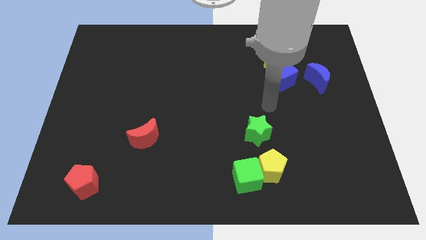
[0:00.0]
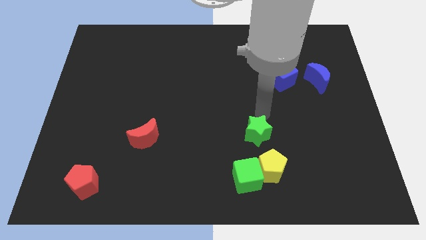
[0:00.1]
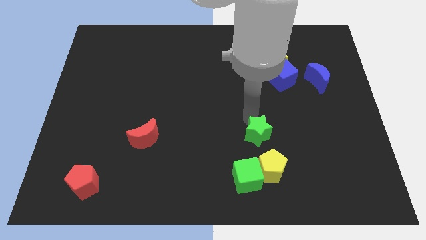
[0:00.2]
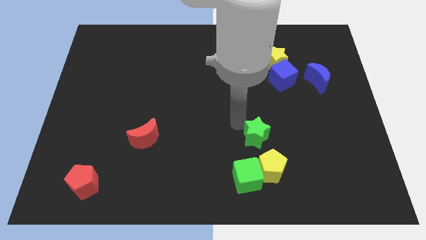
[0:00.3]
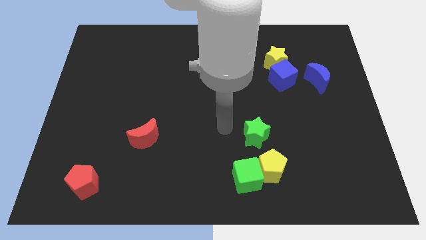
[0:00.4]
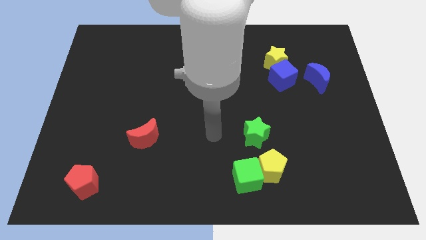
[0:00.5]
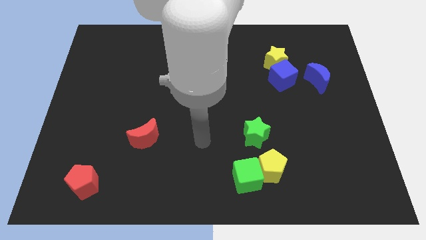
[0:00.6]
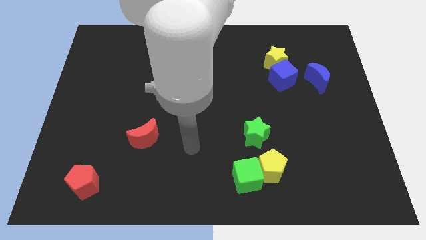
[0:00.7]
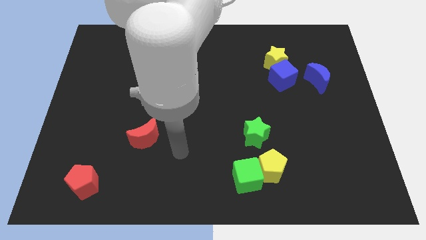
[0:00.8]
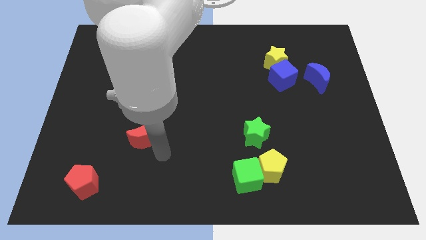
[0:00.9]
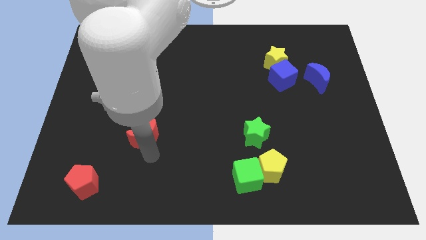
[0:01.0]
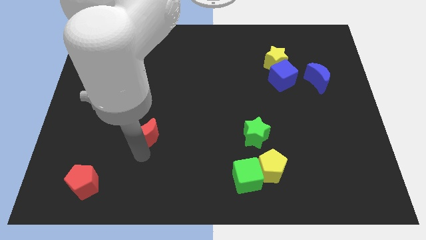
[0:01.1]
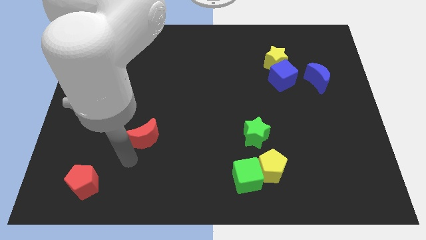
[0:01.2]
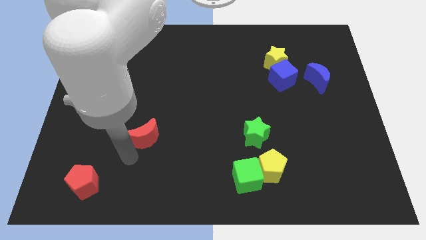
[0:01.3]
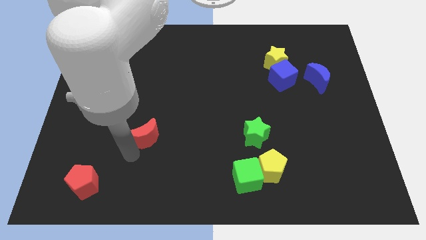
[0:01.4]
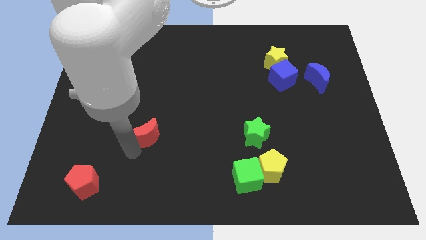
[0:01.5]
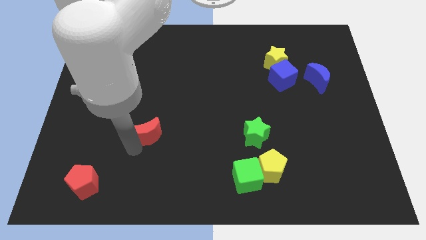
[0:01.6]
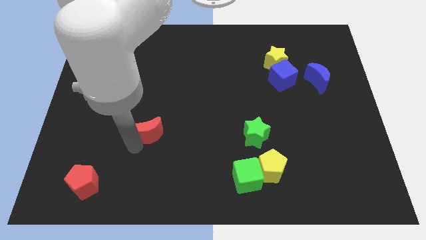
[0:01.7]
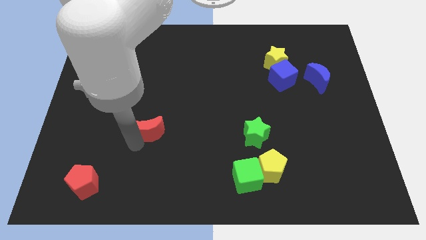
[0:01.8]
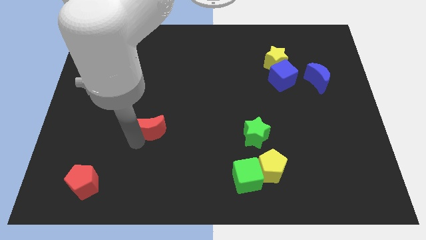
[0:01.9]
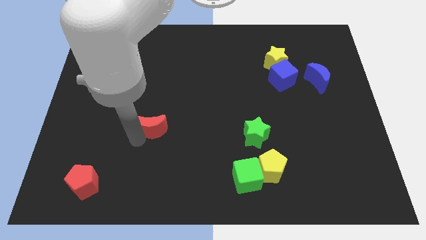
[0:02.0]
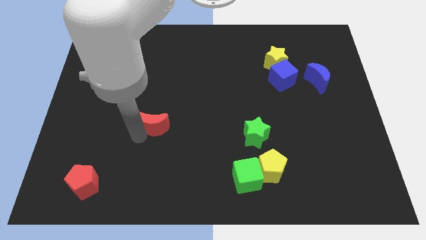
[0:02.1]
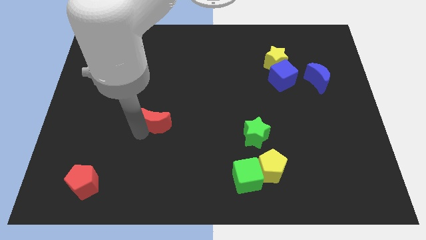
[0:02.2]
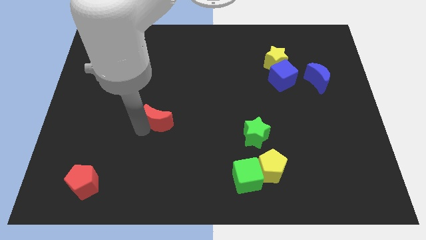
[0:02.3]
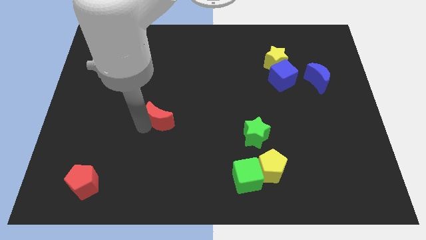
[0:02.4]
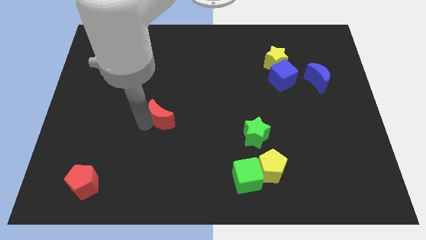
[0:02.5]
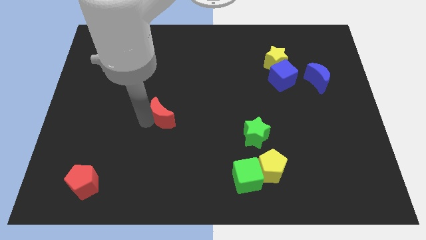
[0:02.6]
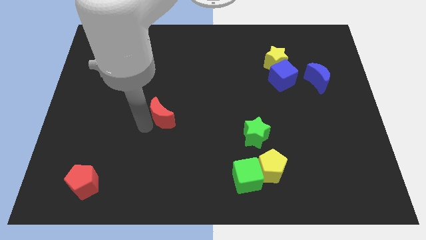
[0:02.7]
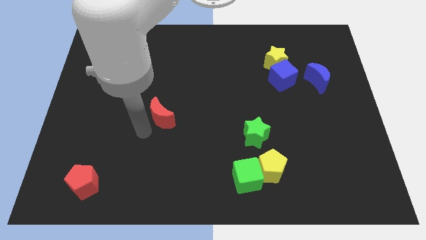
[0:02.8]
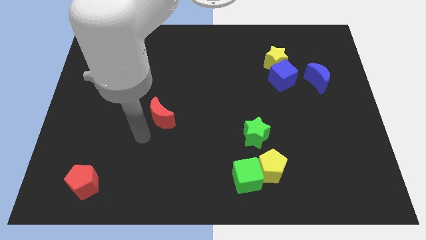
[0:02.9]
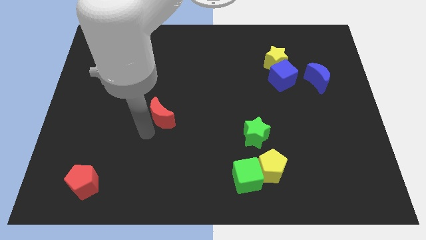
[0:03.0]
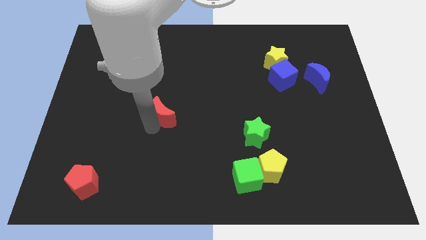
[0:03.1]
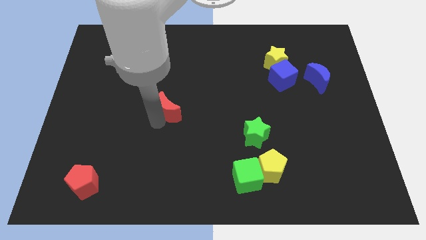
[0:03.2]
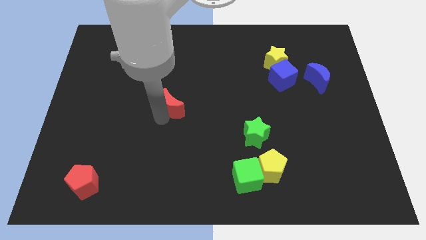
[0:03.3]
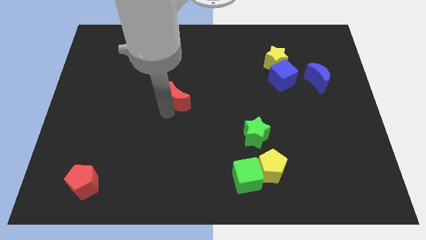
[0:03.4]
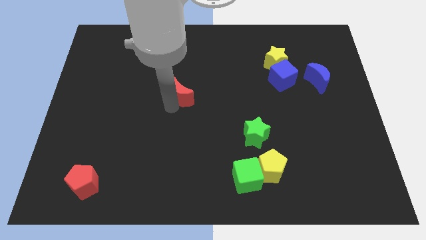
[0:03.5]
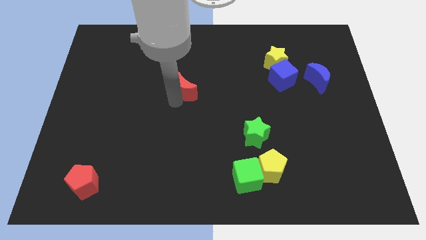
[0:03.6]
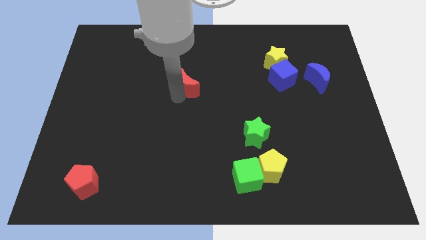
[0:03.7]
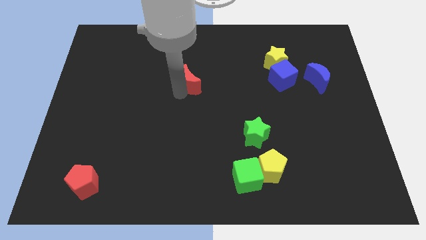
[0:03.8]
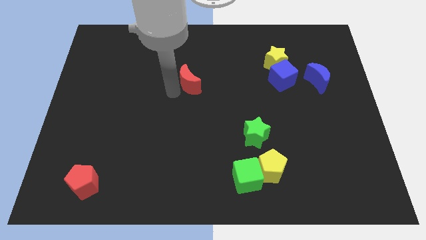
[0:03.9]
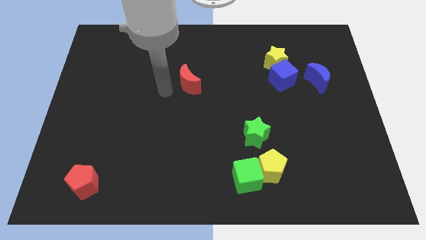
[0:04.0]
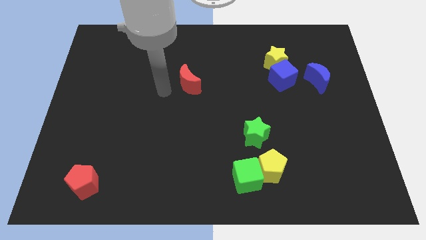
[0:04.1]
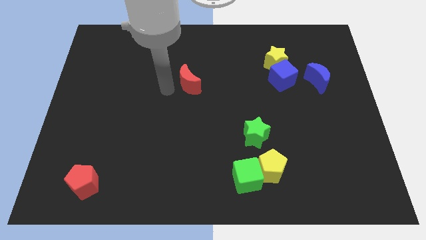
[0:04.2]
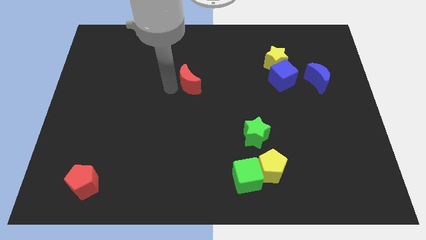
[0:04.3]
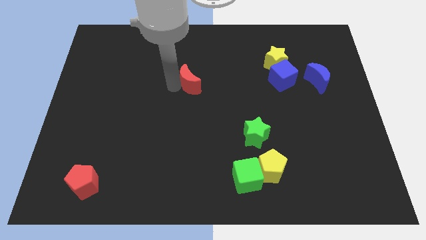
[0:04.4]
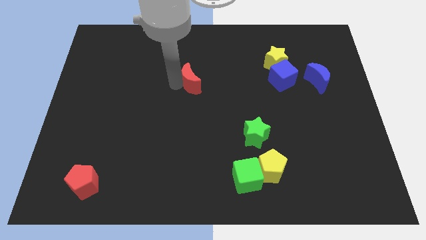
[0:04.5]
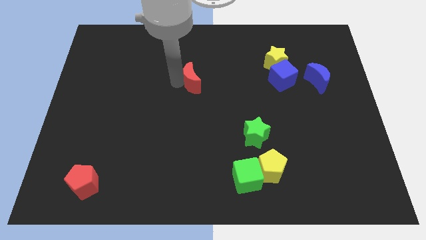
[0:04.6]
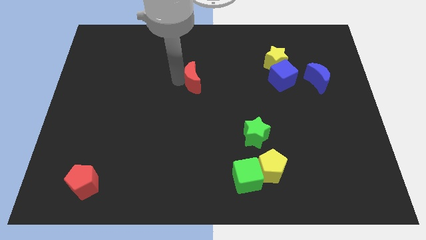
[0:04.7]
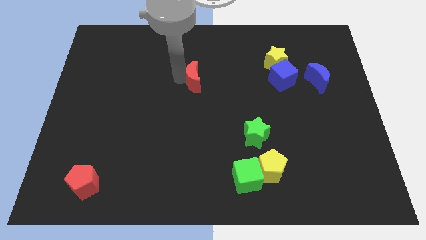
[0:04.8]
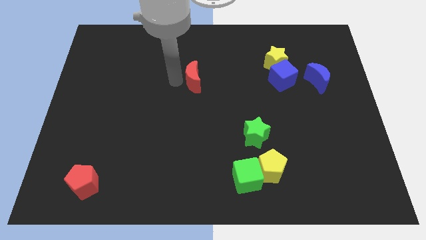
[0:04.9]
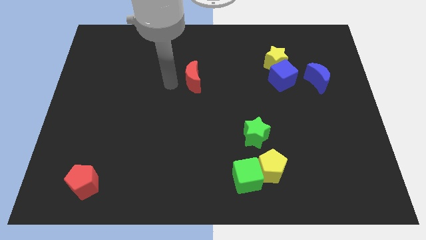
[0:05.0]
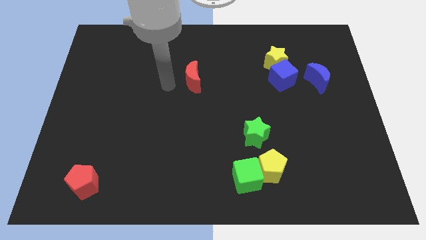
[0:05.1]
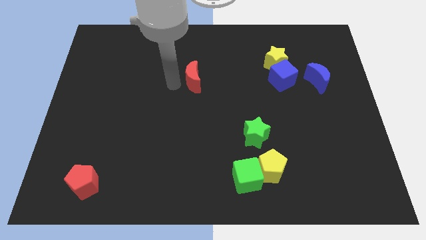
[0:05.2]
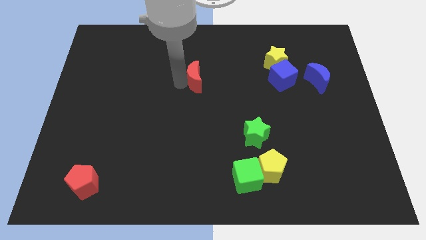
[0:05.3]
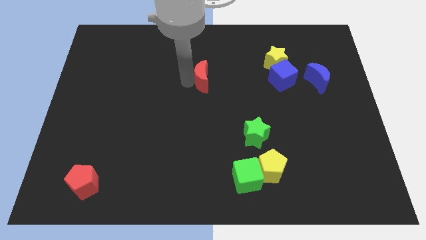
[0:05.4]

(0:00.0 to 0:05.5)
push the red moon up and right

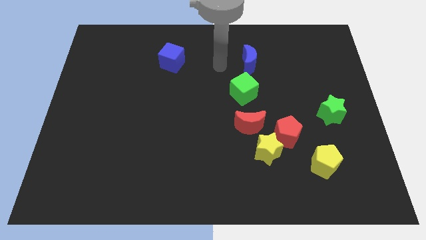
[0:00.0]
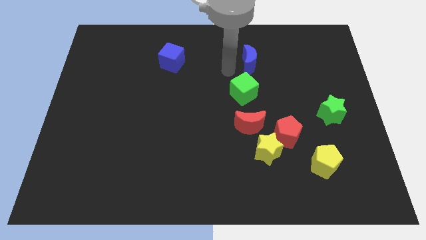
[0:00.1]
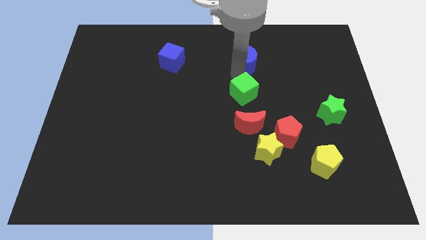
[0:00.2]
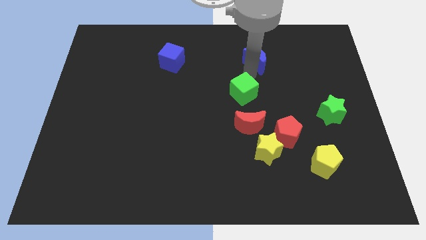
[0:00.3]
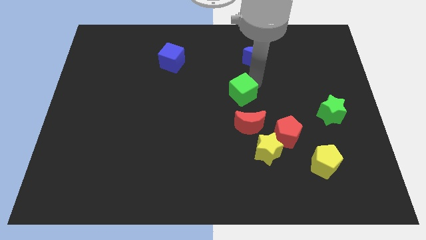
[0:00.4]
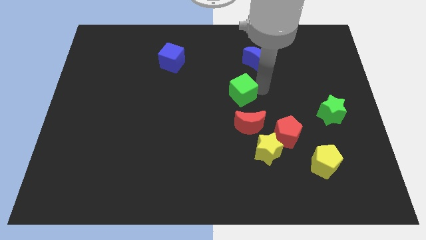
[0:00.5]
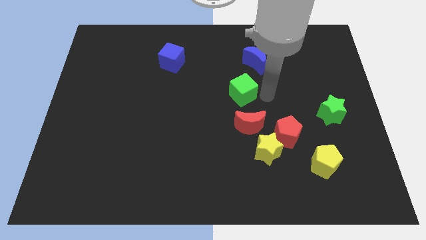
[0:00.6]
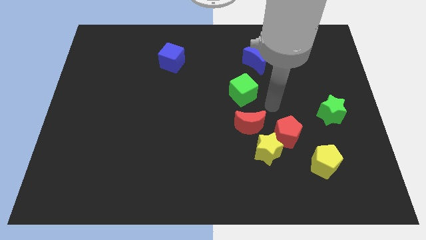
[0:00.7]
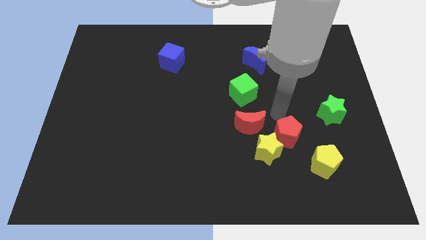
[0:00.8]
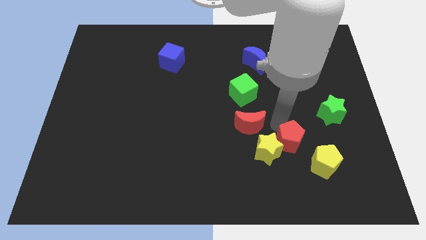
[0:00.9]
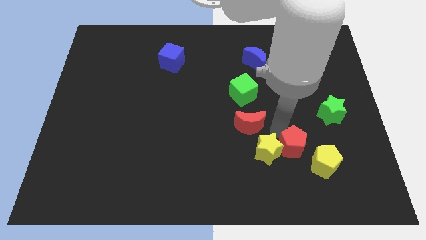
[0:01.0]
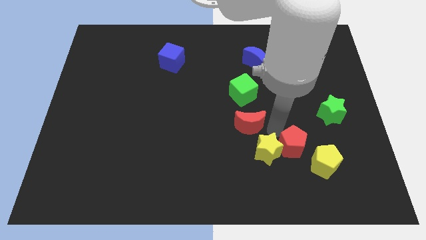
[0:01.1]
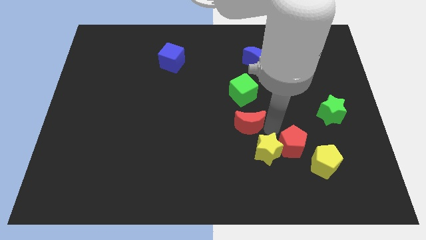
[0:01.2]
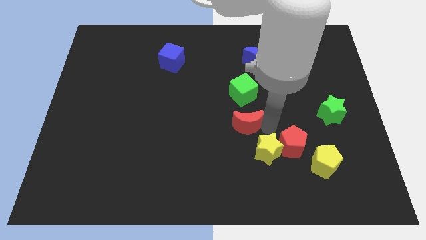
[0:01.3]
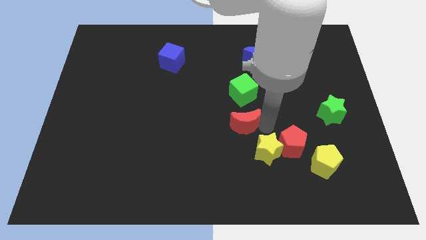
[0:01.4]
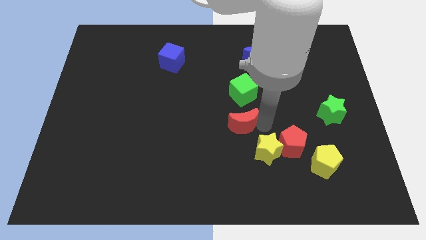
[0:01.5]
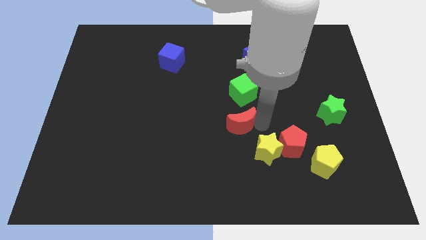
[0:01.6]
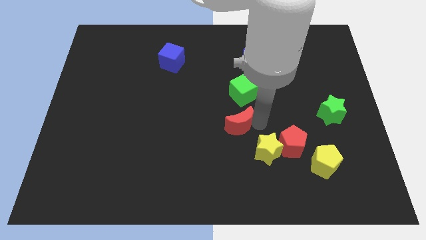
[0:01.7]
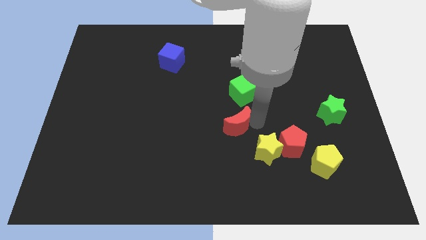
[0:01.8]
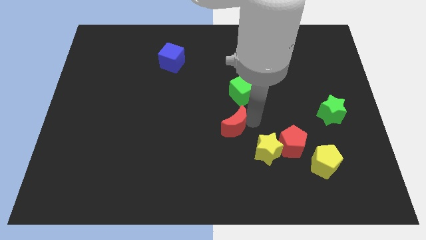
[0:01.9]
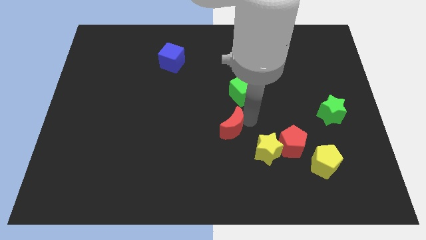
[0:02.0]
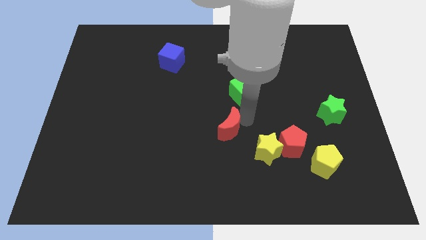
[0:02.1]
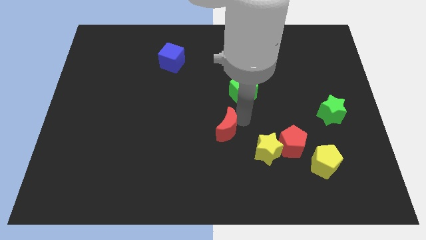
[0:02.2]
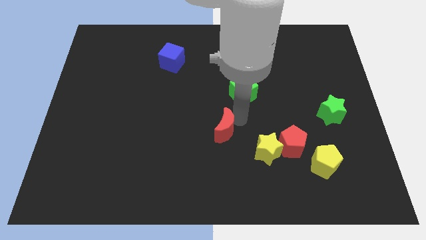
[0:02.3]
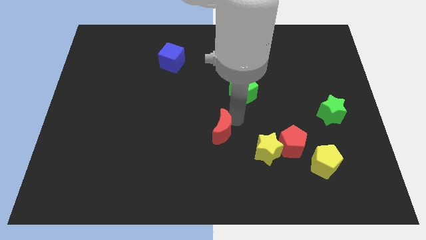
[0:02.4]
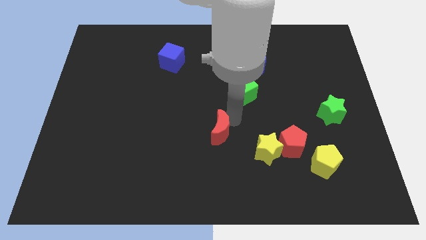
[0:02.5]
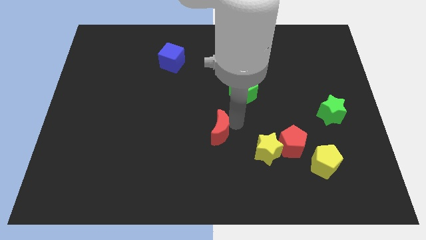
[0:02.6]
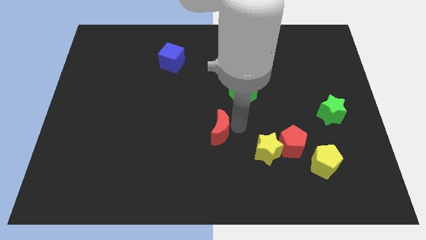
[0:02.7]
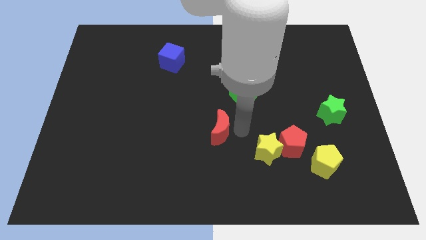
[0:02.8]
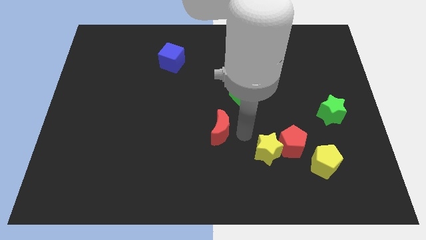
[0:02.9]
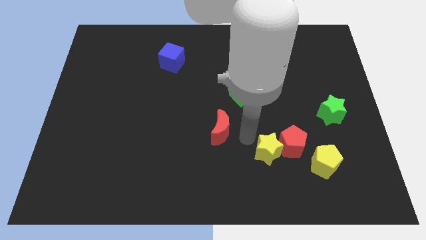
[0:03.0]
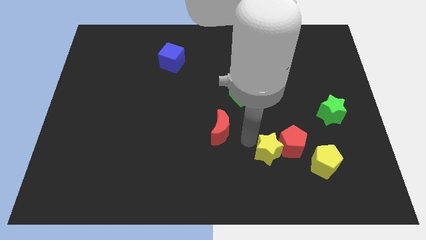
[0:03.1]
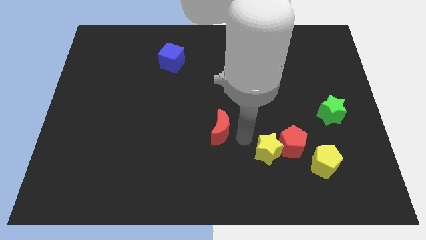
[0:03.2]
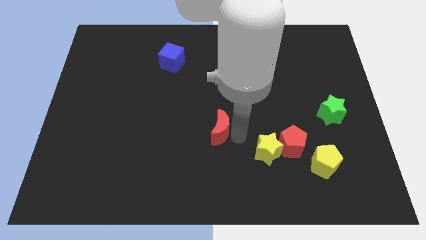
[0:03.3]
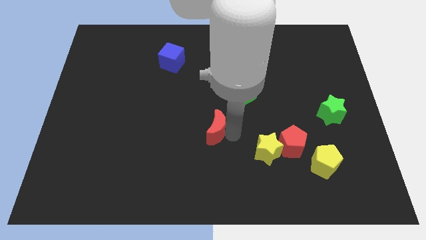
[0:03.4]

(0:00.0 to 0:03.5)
move the red moon a little bit to the left
